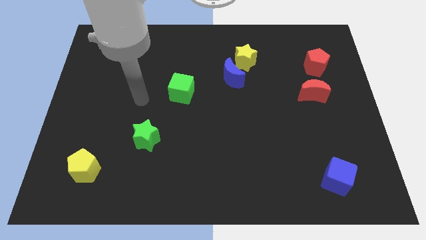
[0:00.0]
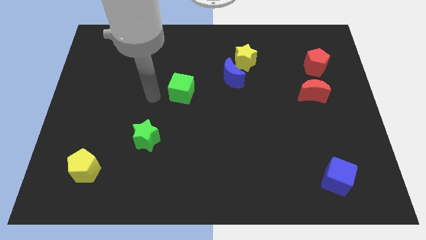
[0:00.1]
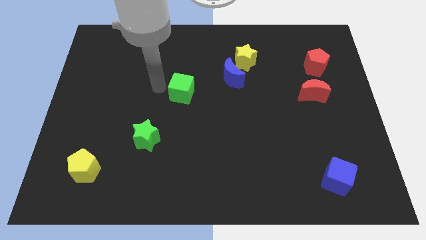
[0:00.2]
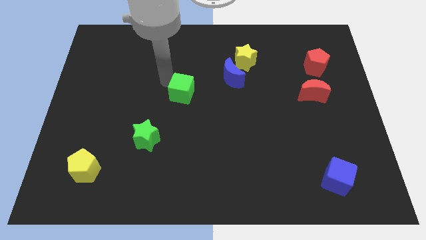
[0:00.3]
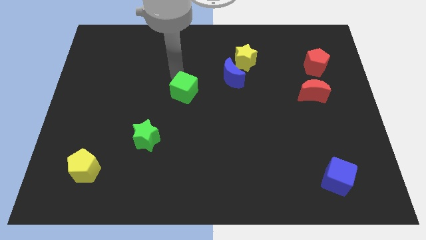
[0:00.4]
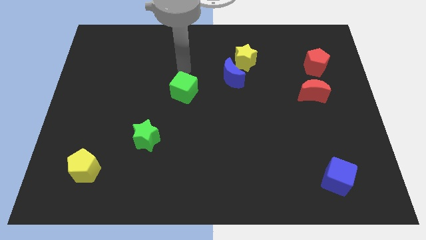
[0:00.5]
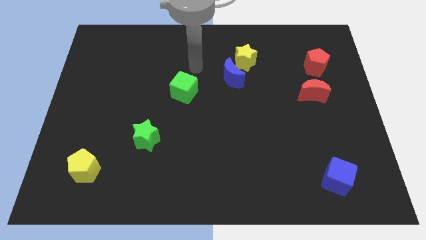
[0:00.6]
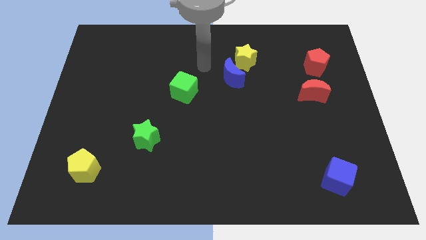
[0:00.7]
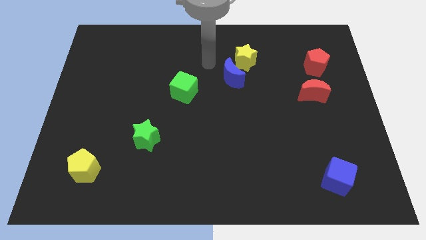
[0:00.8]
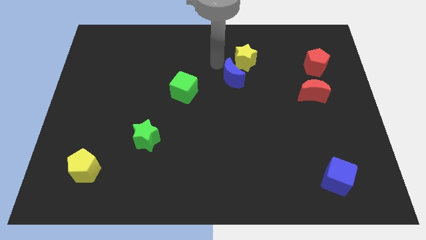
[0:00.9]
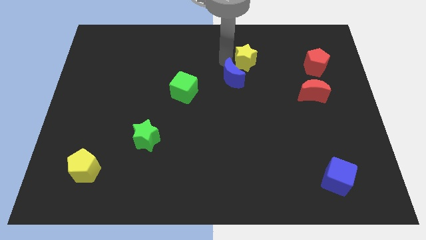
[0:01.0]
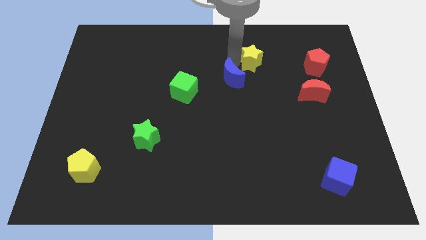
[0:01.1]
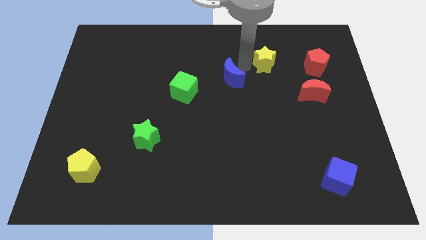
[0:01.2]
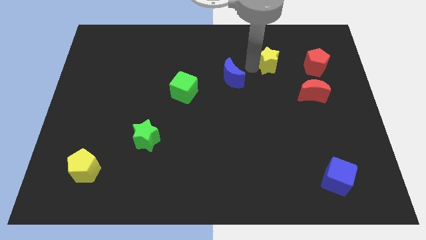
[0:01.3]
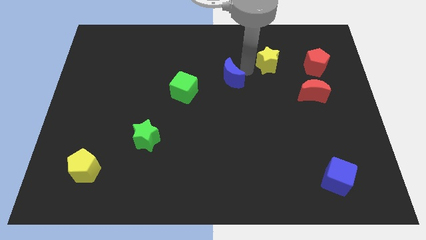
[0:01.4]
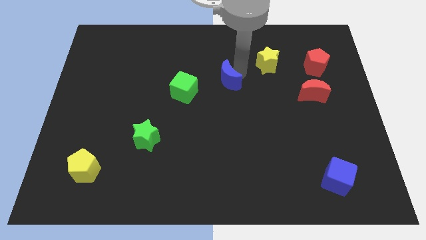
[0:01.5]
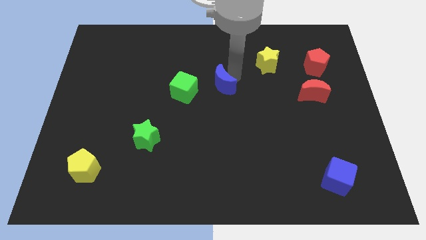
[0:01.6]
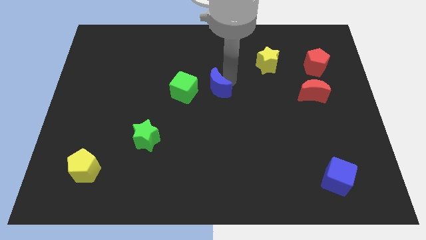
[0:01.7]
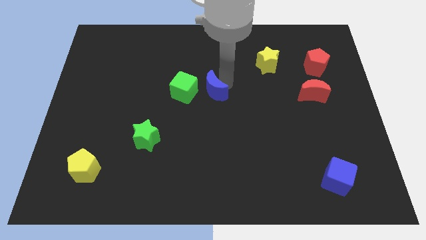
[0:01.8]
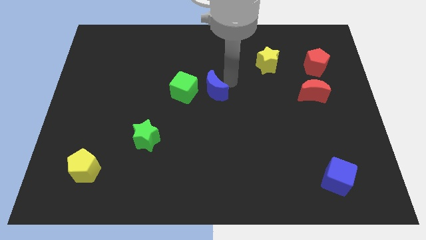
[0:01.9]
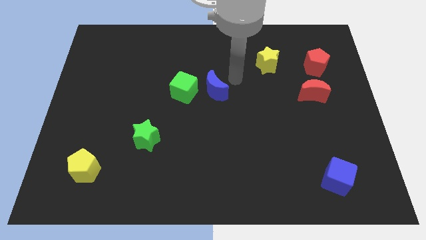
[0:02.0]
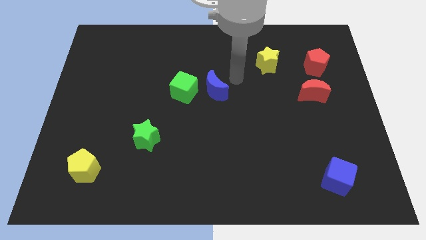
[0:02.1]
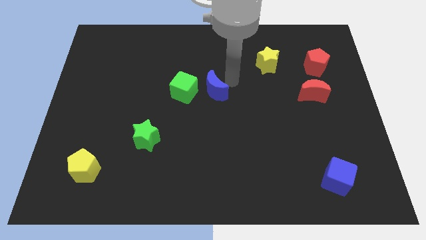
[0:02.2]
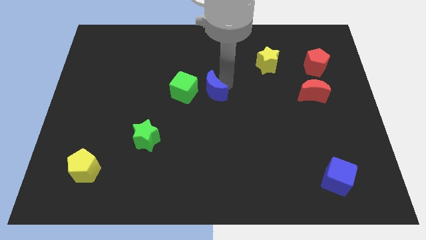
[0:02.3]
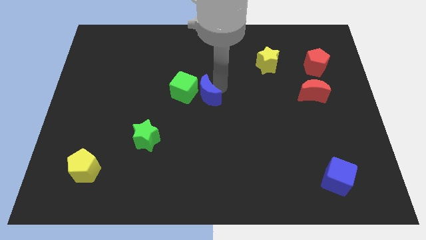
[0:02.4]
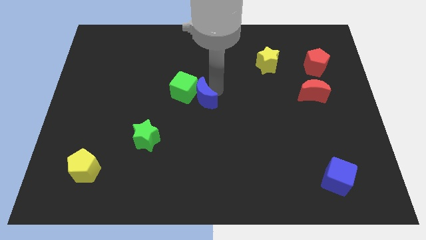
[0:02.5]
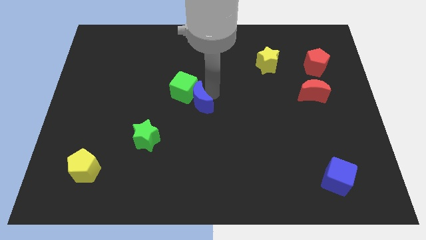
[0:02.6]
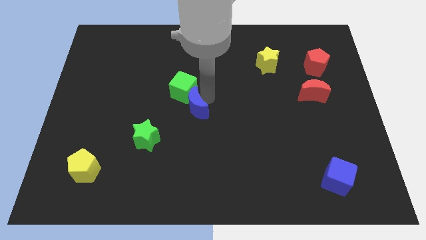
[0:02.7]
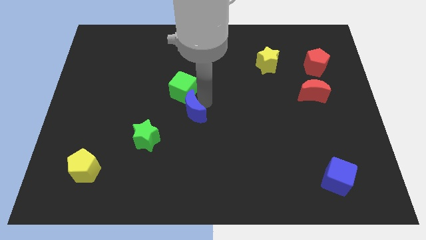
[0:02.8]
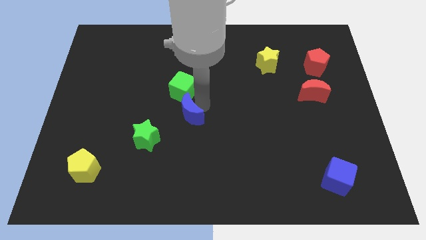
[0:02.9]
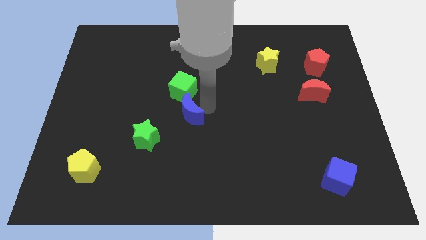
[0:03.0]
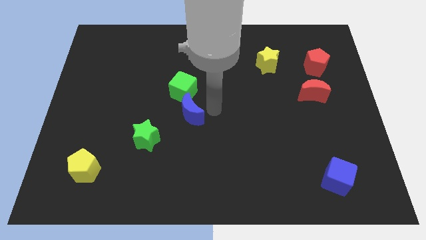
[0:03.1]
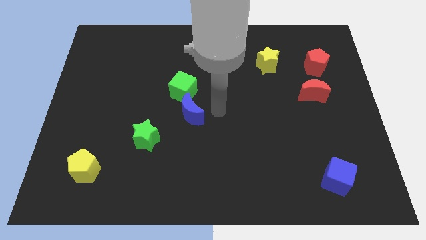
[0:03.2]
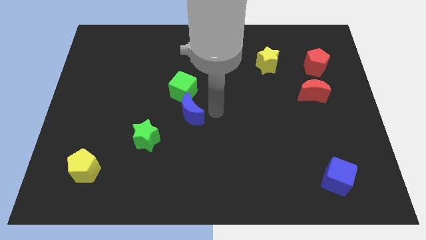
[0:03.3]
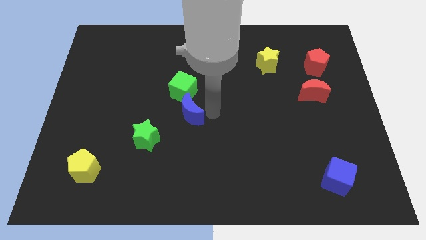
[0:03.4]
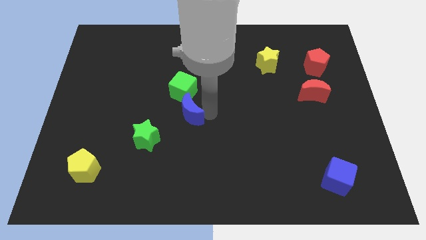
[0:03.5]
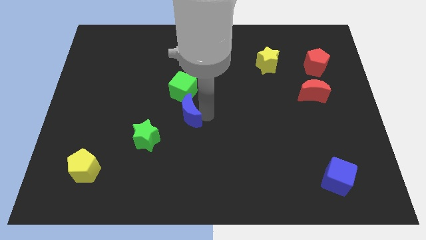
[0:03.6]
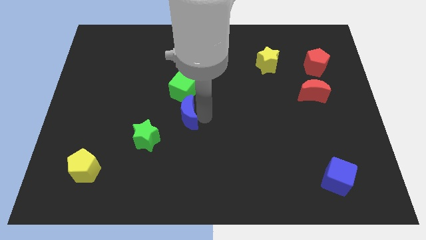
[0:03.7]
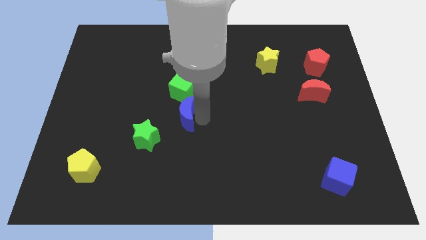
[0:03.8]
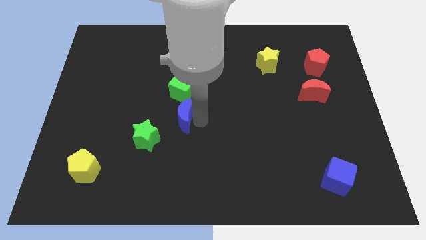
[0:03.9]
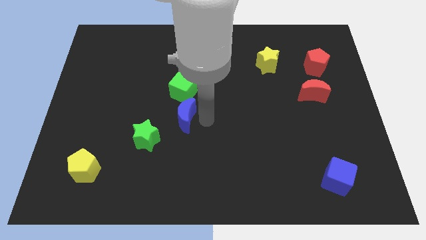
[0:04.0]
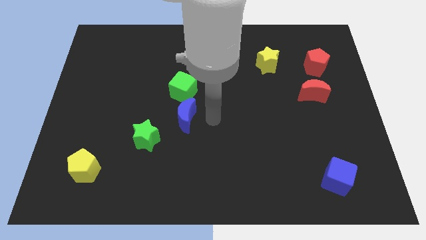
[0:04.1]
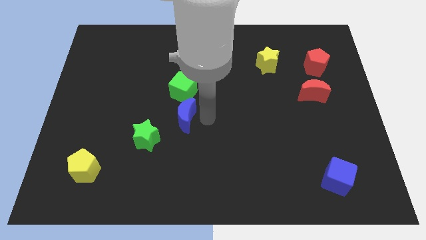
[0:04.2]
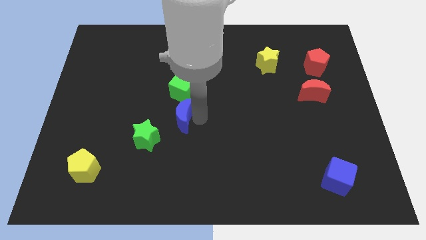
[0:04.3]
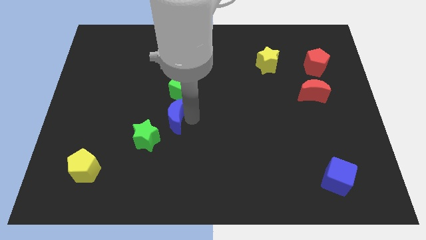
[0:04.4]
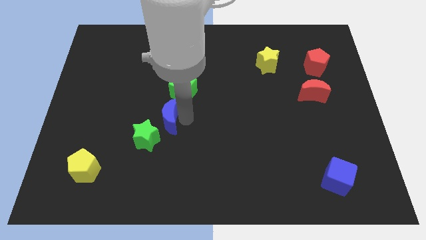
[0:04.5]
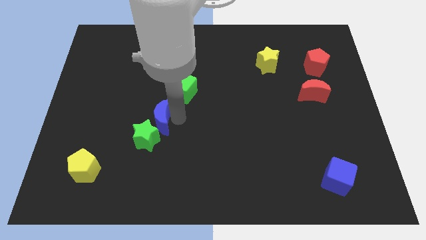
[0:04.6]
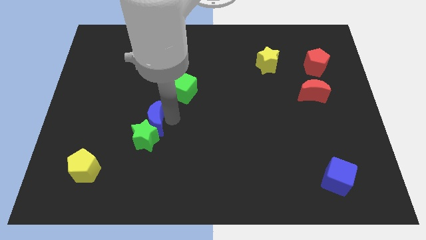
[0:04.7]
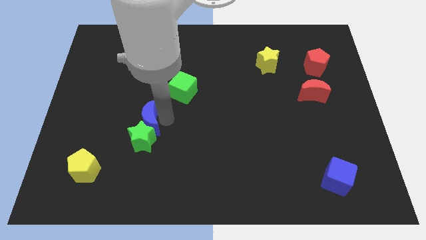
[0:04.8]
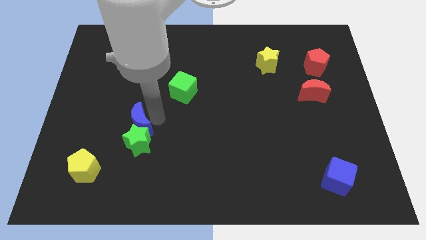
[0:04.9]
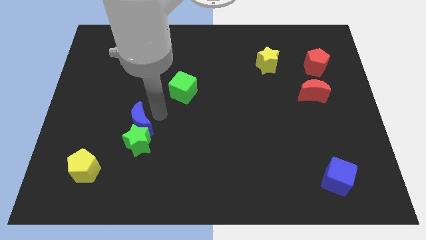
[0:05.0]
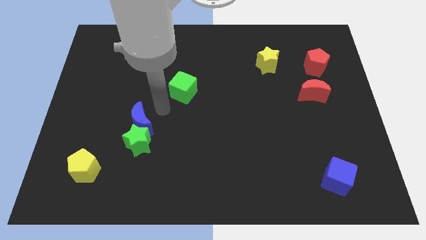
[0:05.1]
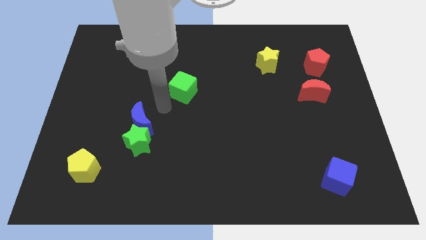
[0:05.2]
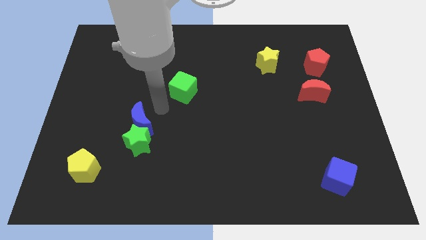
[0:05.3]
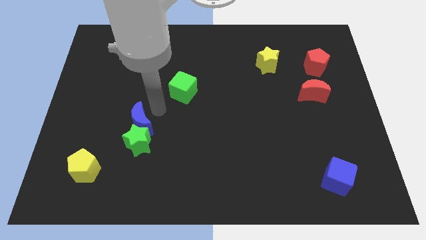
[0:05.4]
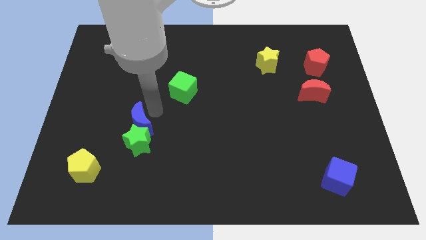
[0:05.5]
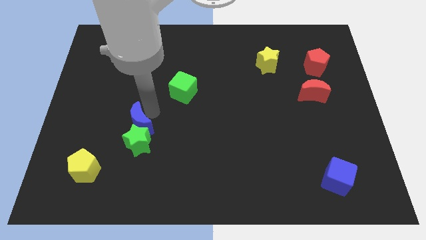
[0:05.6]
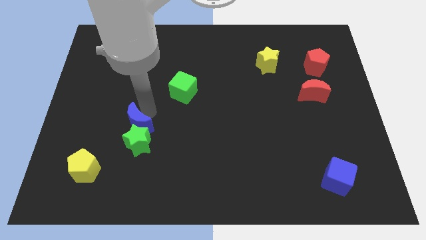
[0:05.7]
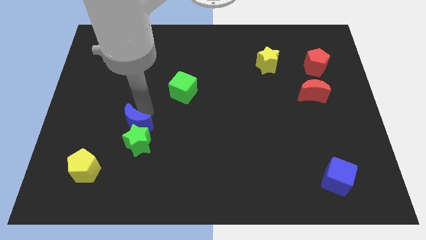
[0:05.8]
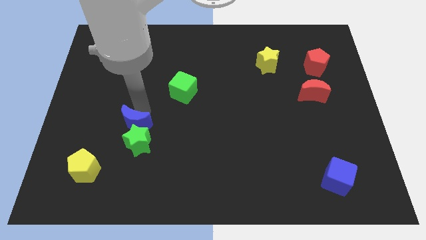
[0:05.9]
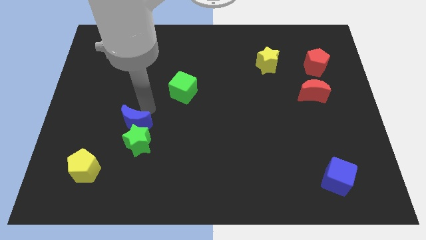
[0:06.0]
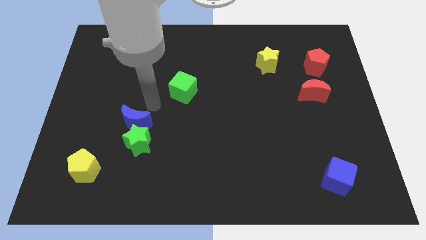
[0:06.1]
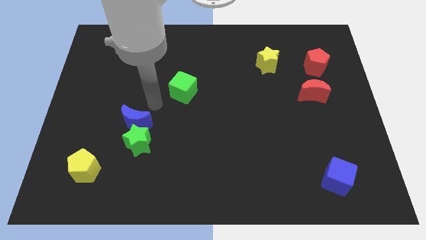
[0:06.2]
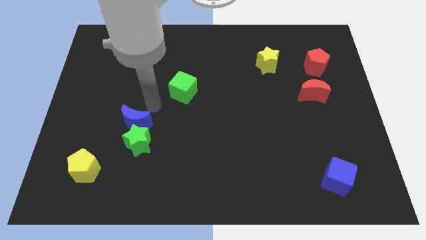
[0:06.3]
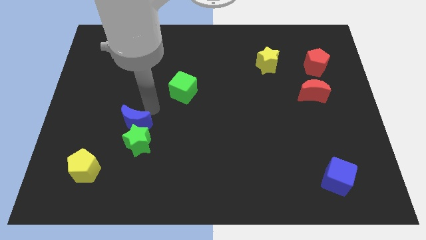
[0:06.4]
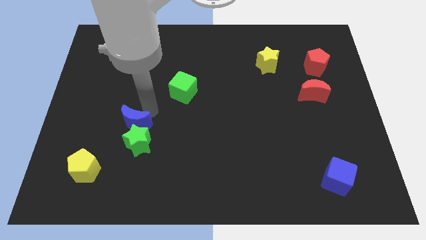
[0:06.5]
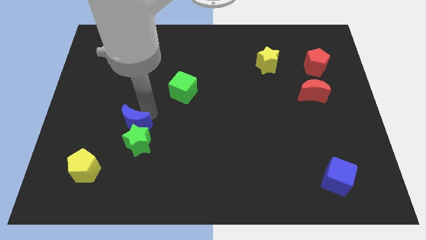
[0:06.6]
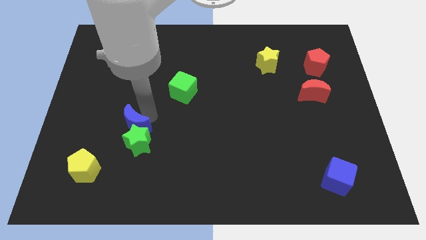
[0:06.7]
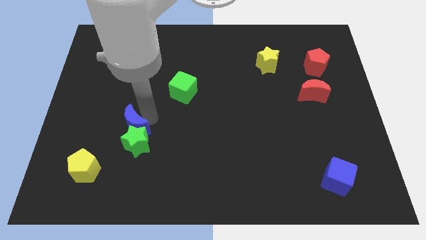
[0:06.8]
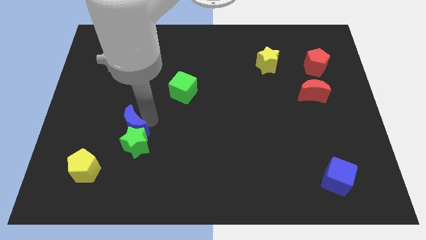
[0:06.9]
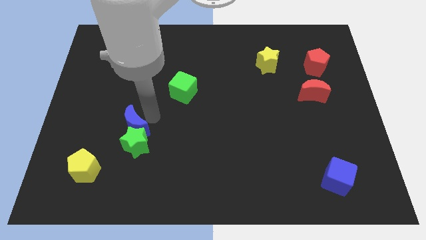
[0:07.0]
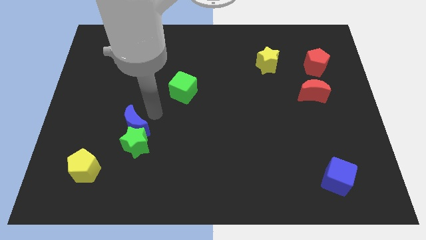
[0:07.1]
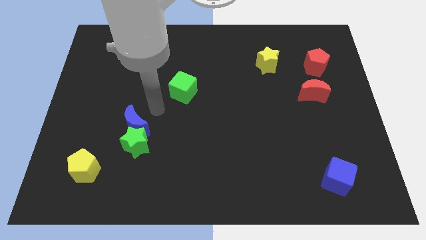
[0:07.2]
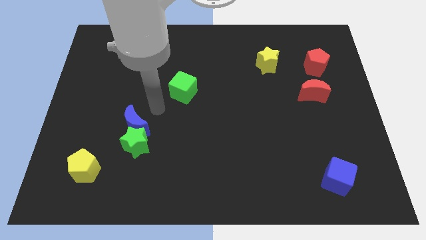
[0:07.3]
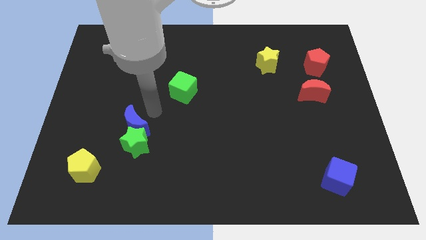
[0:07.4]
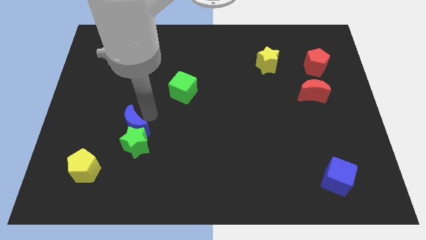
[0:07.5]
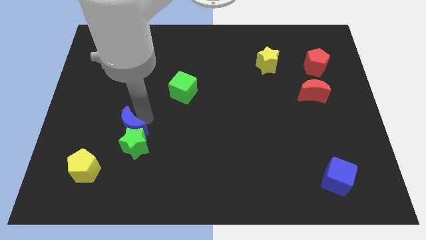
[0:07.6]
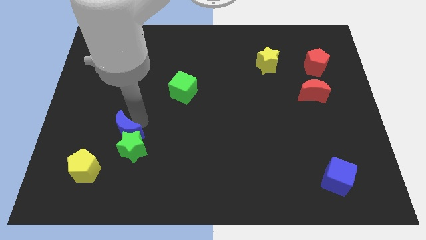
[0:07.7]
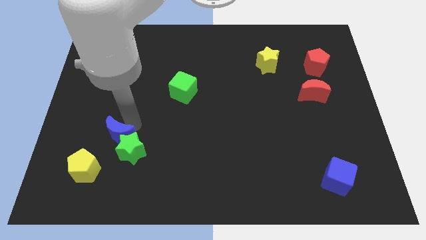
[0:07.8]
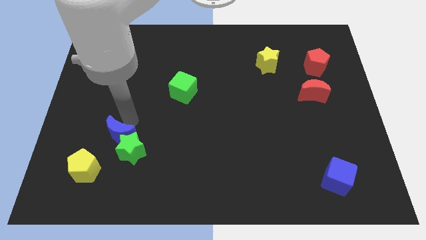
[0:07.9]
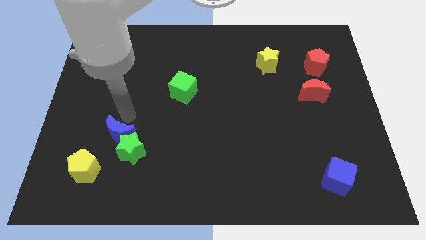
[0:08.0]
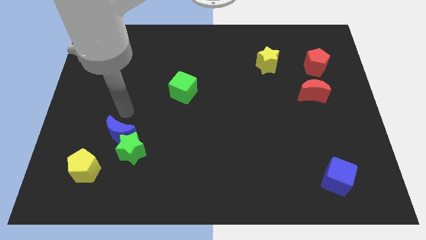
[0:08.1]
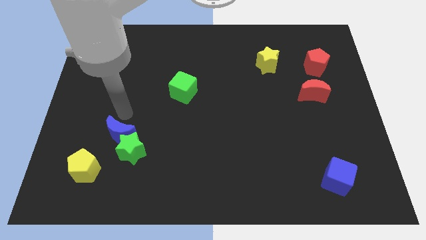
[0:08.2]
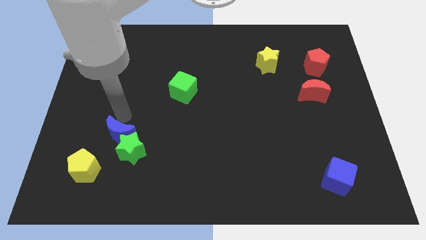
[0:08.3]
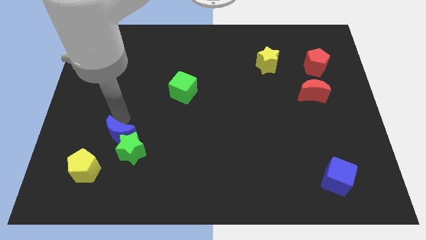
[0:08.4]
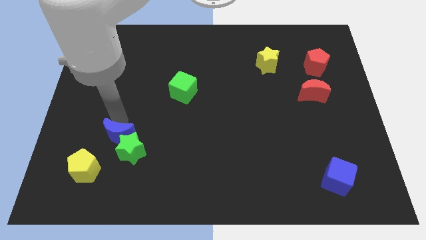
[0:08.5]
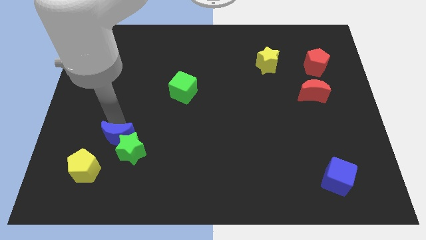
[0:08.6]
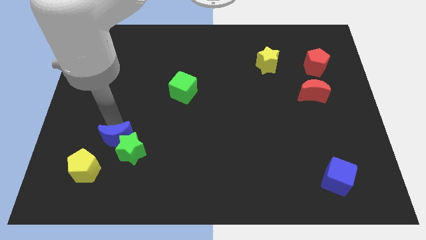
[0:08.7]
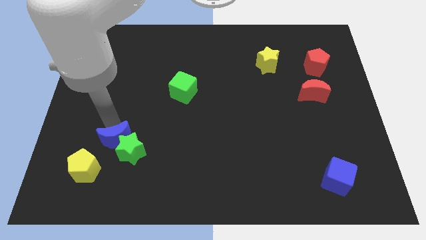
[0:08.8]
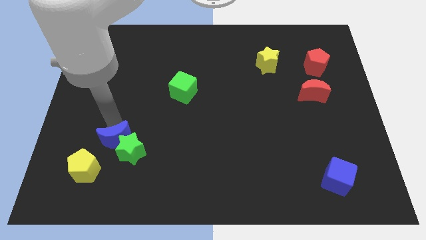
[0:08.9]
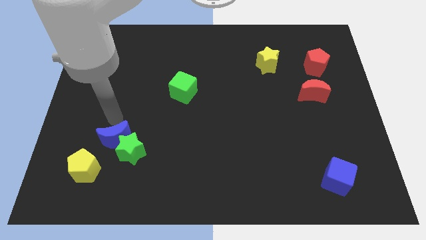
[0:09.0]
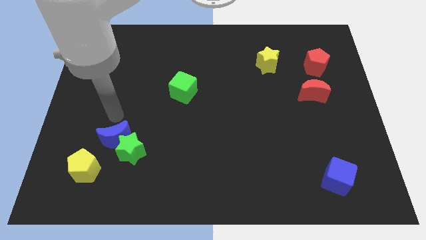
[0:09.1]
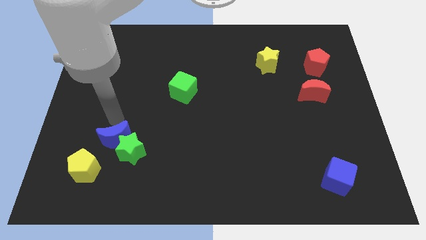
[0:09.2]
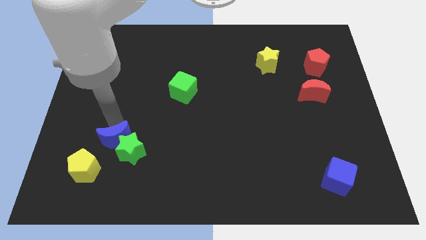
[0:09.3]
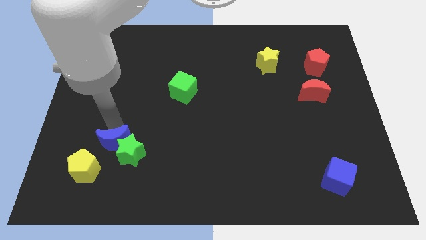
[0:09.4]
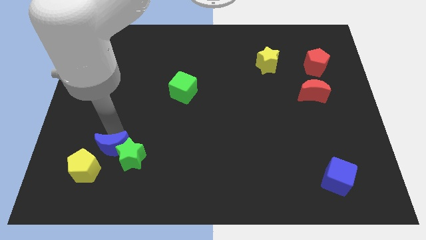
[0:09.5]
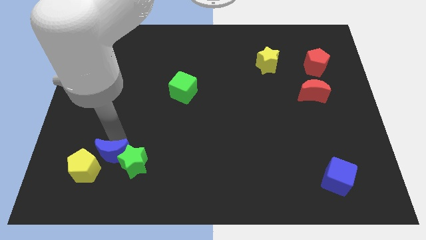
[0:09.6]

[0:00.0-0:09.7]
put the blue moon close to the yellow pentagon
